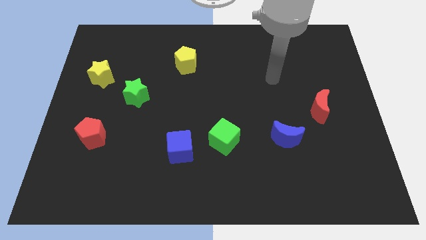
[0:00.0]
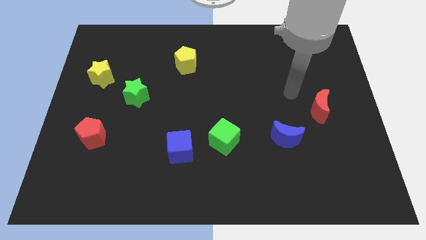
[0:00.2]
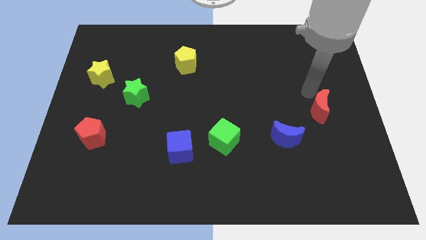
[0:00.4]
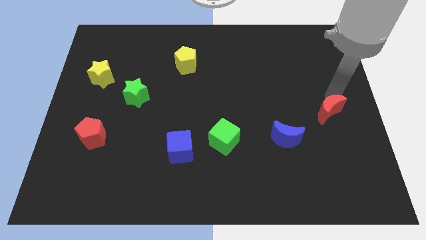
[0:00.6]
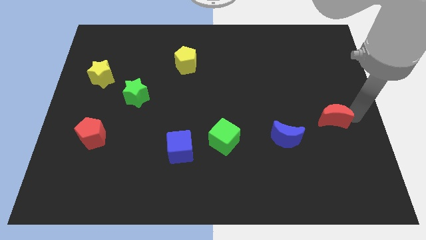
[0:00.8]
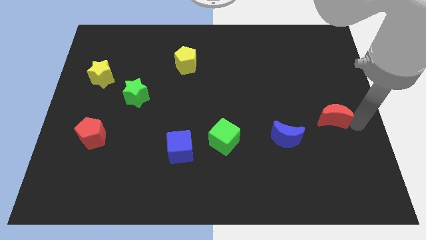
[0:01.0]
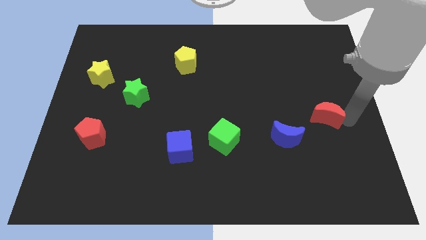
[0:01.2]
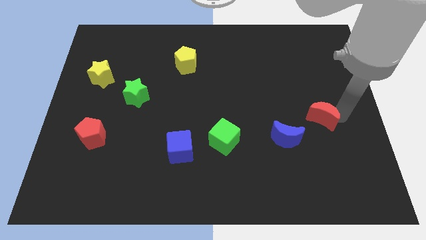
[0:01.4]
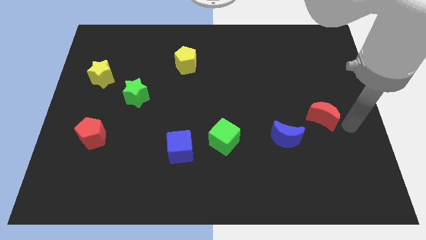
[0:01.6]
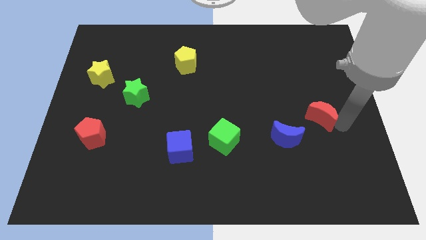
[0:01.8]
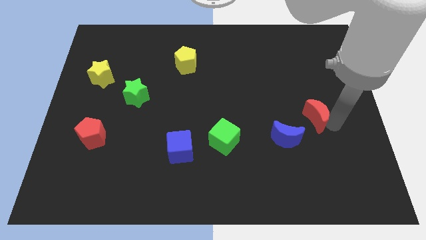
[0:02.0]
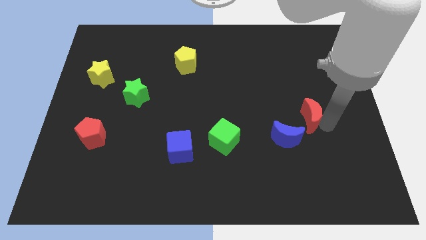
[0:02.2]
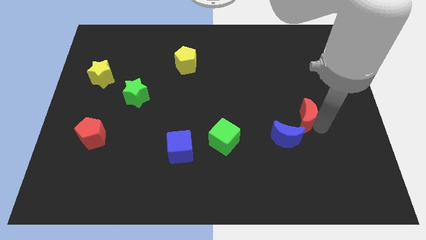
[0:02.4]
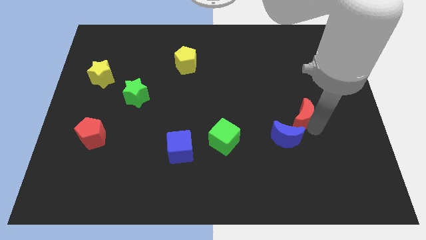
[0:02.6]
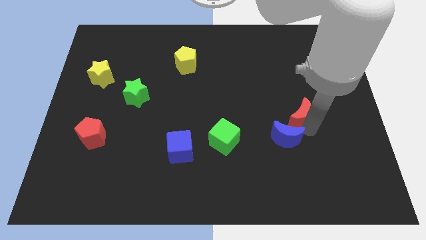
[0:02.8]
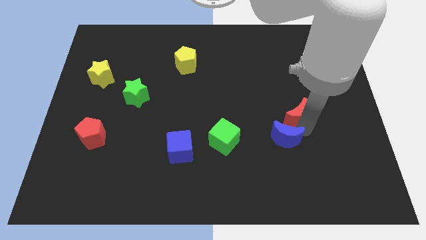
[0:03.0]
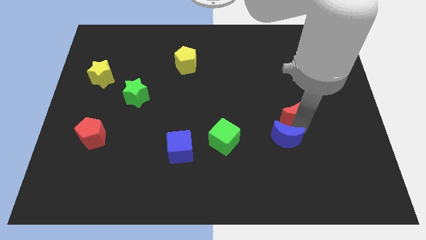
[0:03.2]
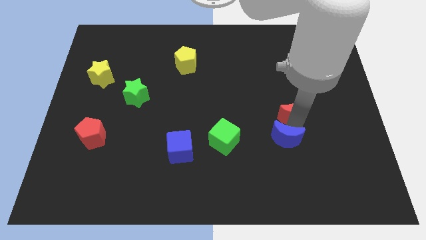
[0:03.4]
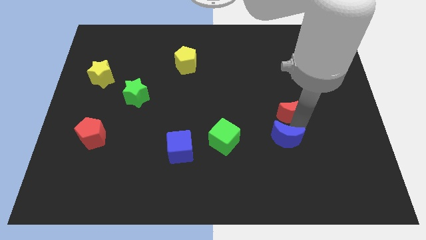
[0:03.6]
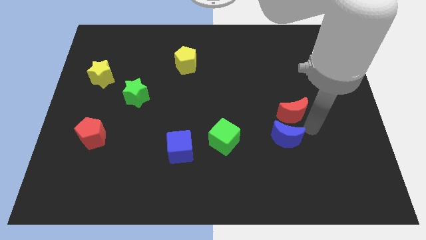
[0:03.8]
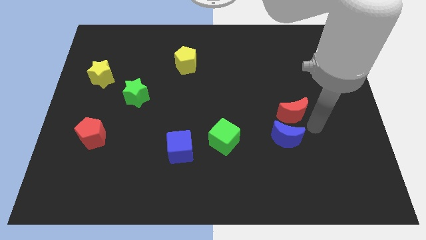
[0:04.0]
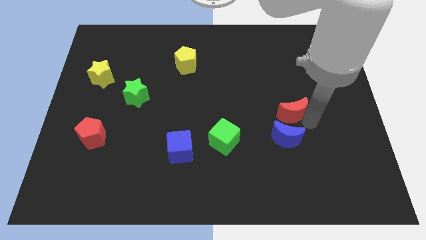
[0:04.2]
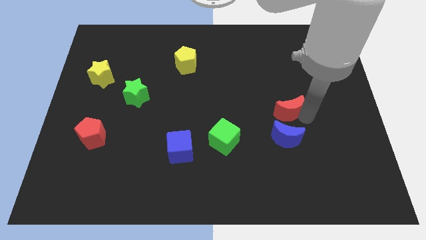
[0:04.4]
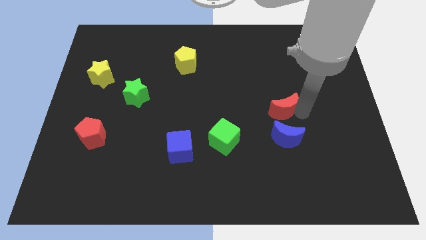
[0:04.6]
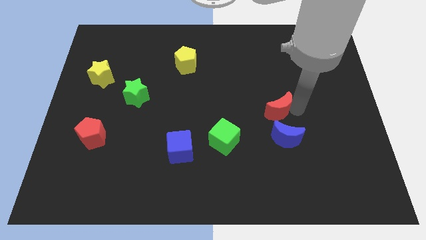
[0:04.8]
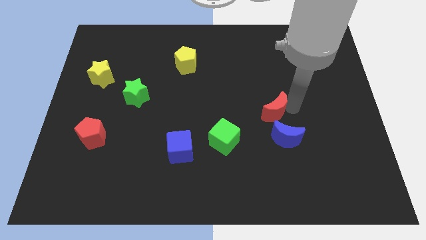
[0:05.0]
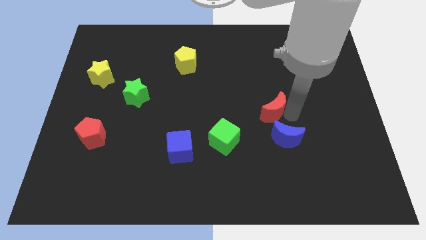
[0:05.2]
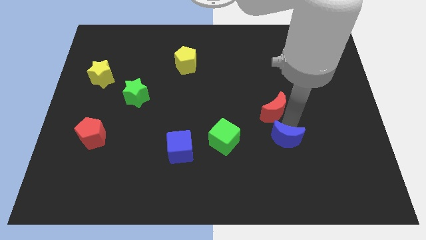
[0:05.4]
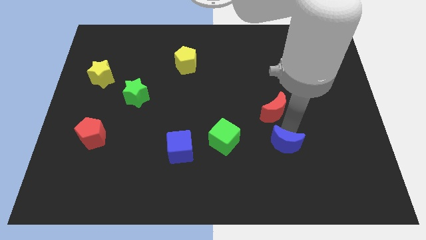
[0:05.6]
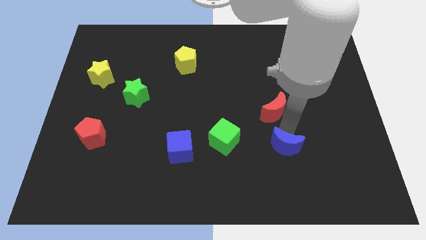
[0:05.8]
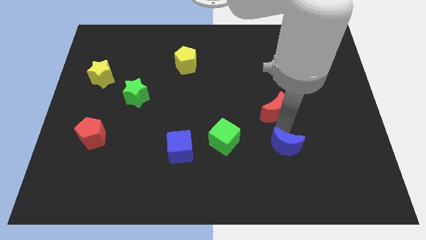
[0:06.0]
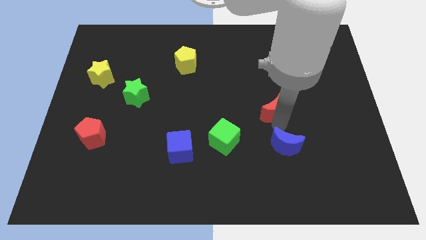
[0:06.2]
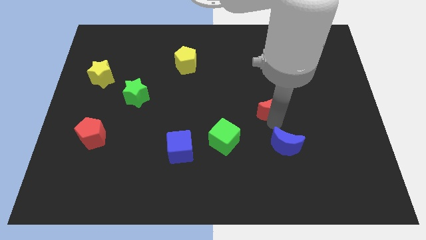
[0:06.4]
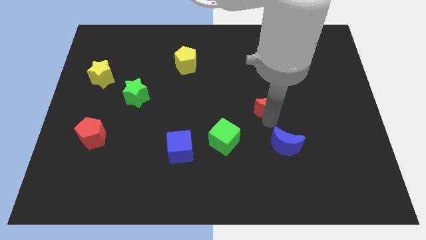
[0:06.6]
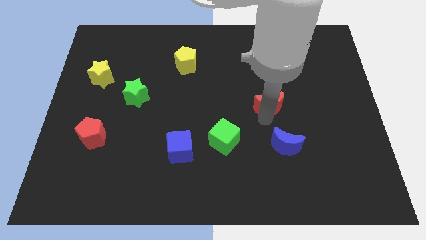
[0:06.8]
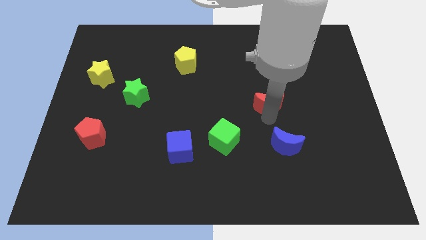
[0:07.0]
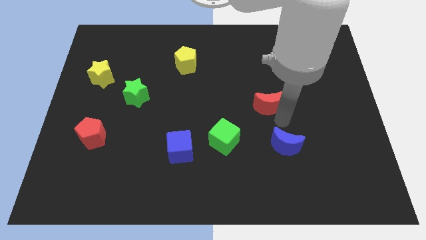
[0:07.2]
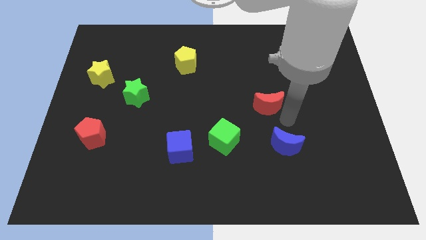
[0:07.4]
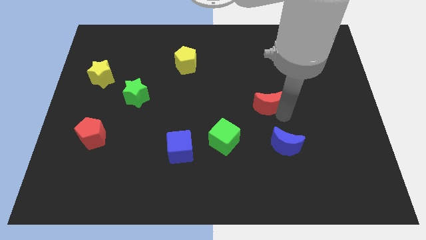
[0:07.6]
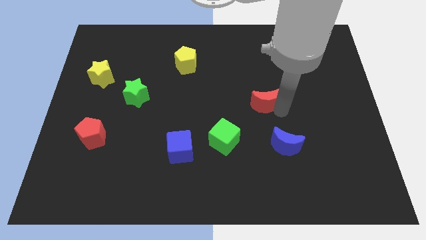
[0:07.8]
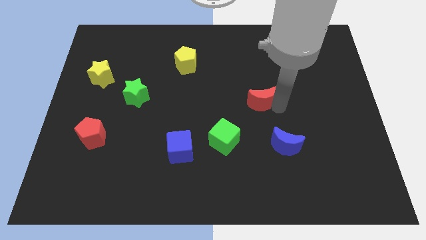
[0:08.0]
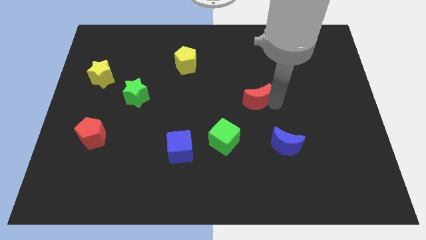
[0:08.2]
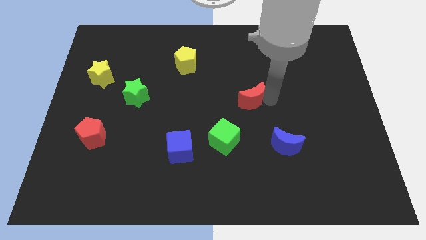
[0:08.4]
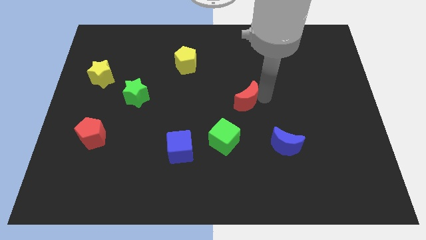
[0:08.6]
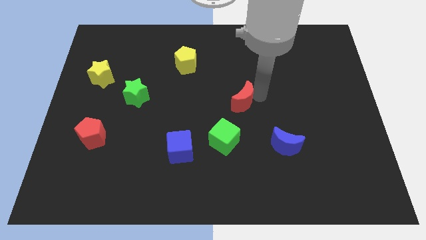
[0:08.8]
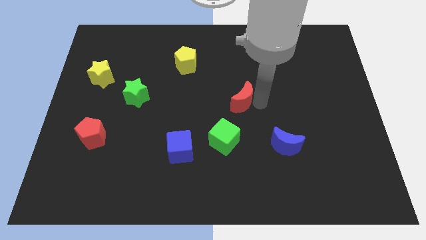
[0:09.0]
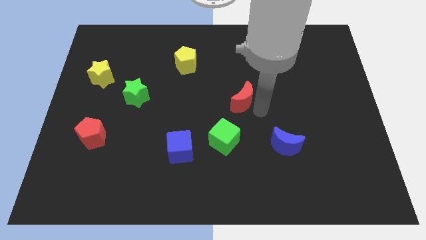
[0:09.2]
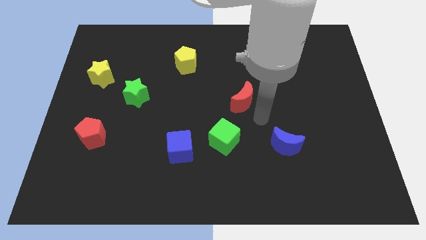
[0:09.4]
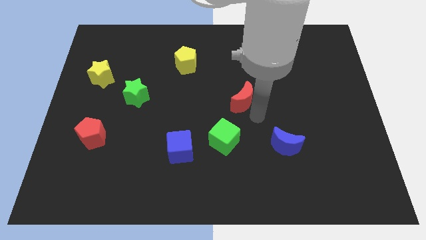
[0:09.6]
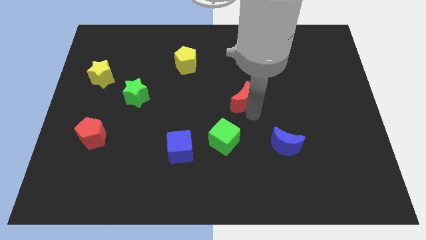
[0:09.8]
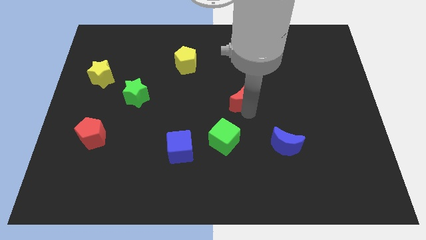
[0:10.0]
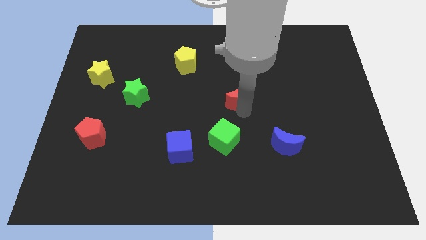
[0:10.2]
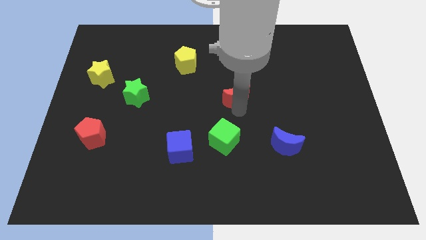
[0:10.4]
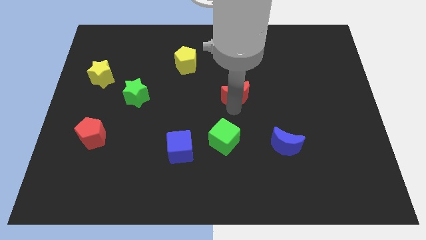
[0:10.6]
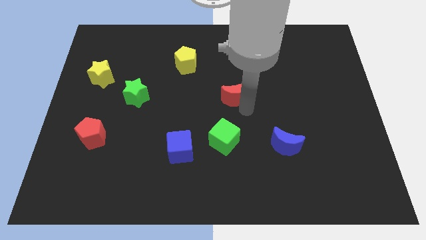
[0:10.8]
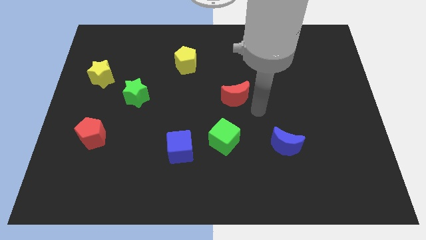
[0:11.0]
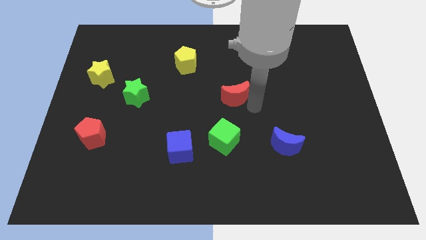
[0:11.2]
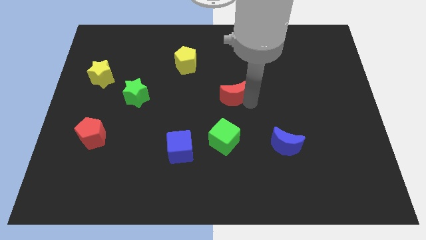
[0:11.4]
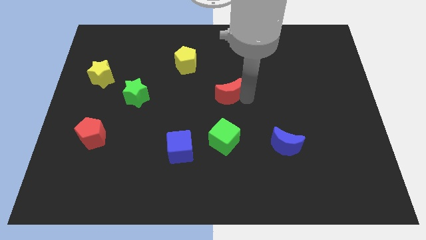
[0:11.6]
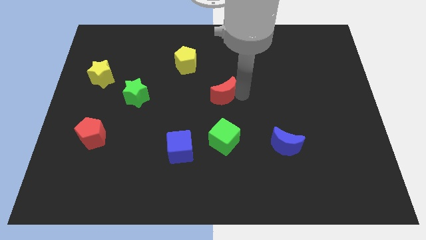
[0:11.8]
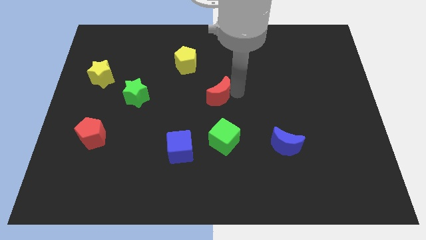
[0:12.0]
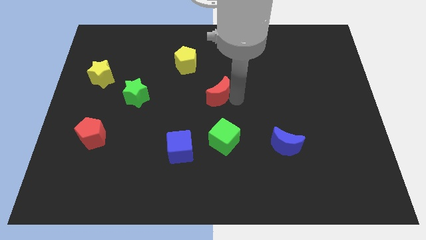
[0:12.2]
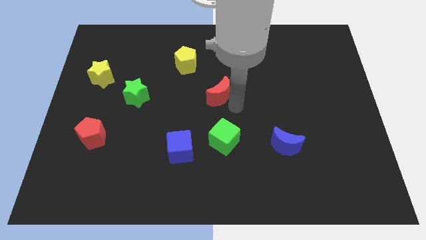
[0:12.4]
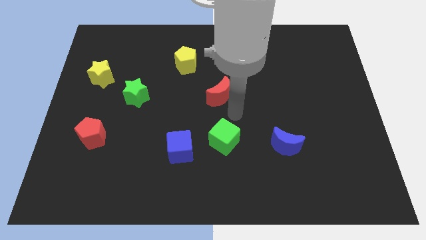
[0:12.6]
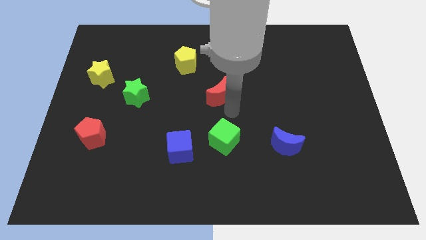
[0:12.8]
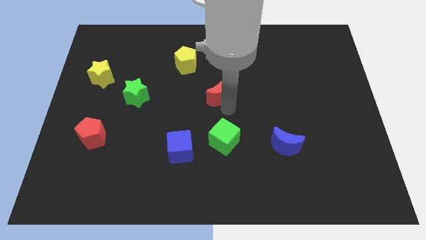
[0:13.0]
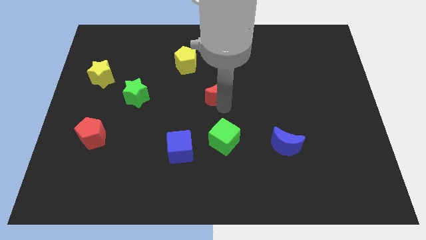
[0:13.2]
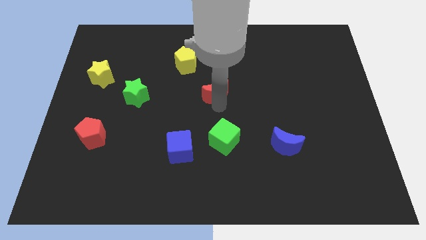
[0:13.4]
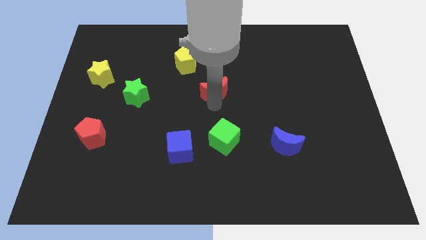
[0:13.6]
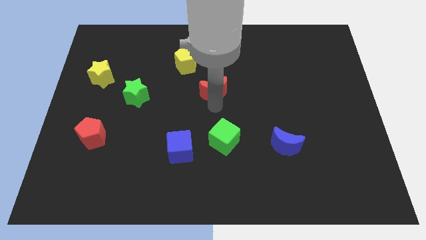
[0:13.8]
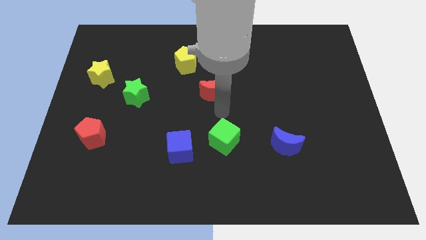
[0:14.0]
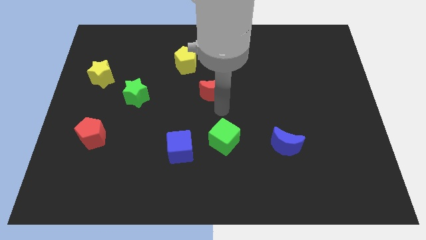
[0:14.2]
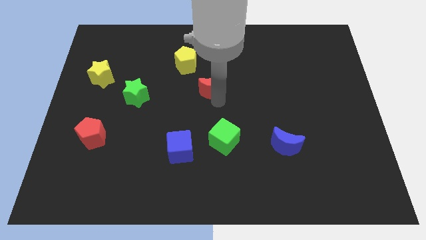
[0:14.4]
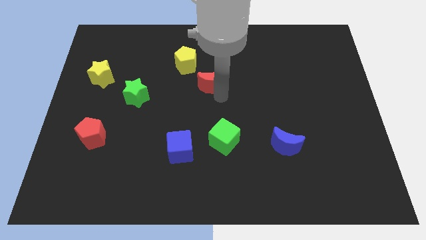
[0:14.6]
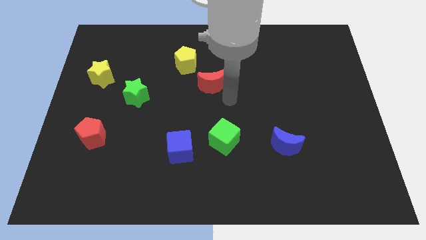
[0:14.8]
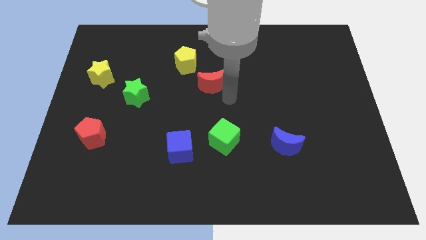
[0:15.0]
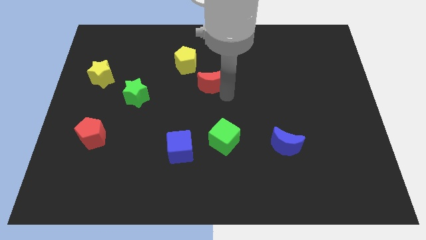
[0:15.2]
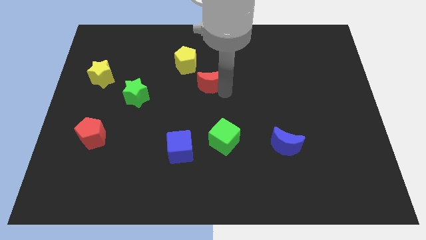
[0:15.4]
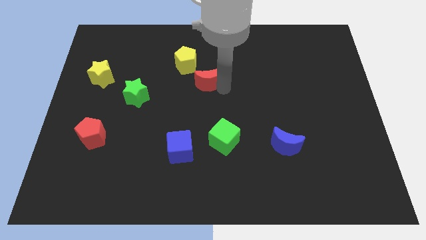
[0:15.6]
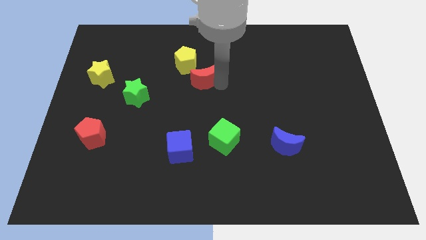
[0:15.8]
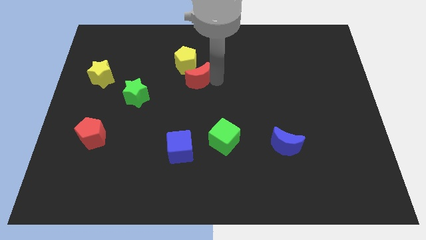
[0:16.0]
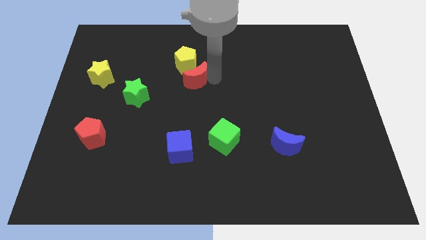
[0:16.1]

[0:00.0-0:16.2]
put the red moon to the yellow pentagon
